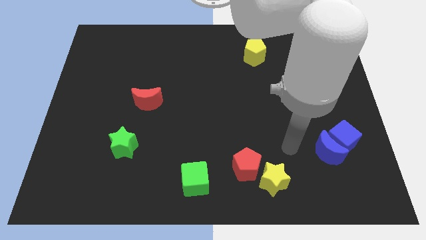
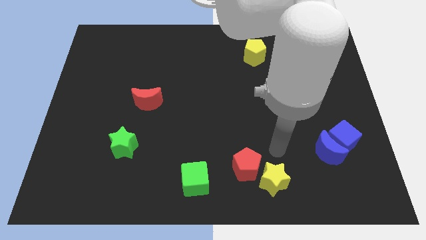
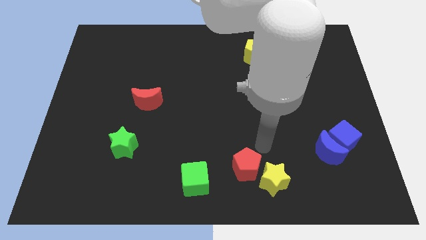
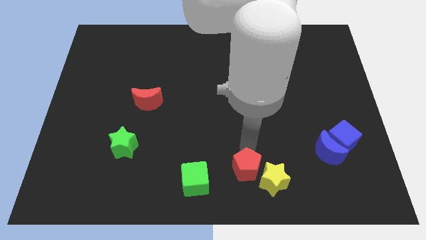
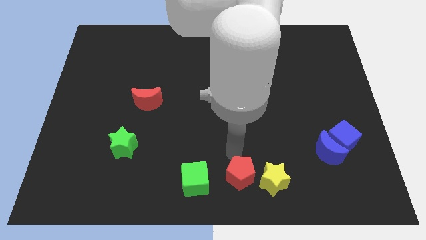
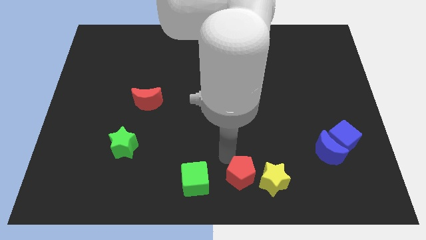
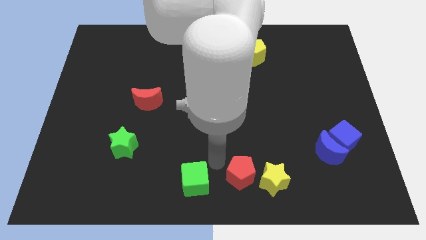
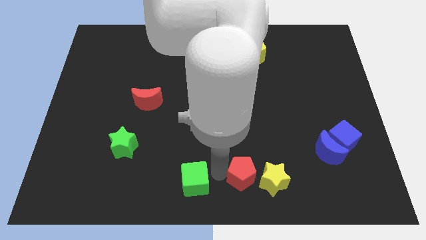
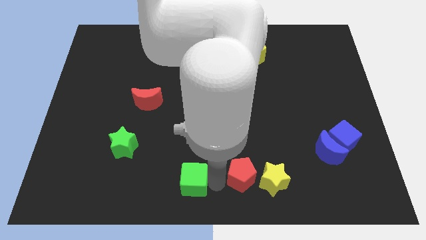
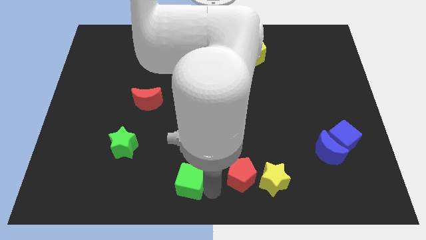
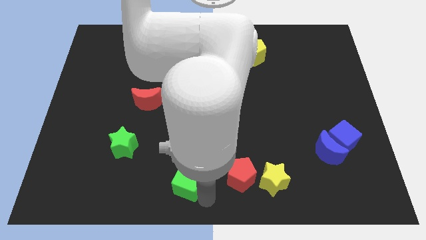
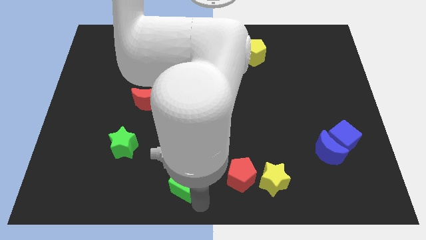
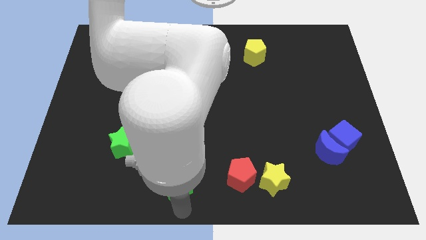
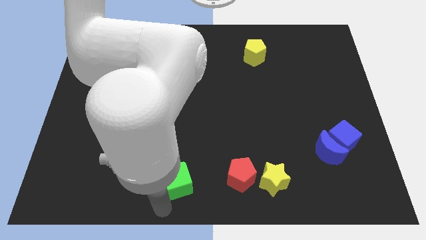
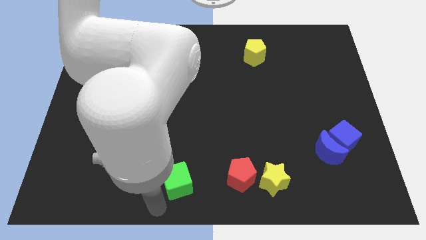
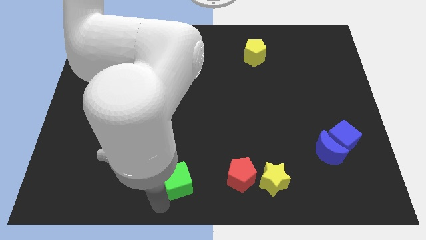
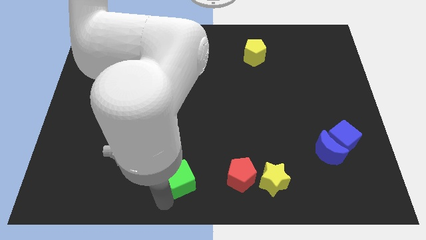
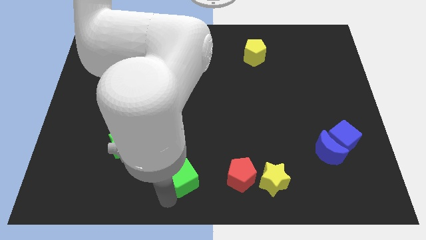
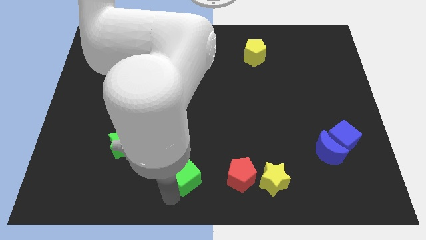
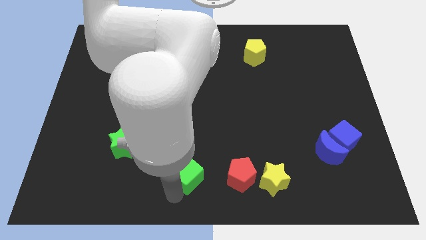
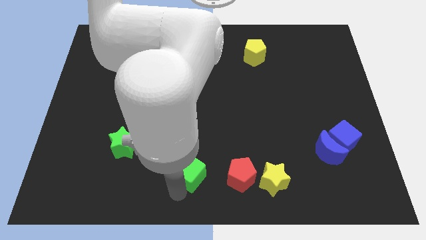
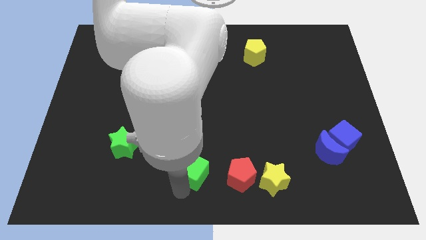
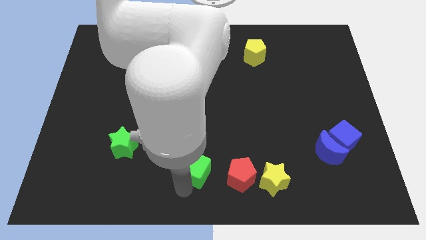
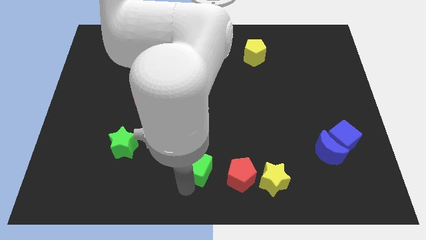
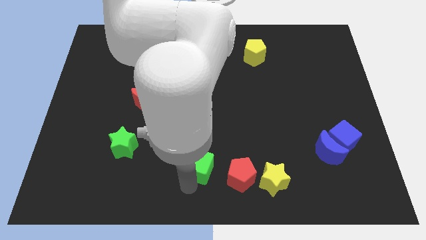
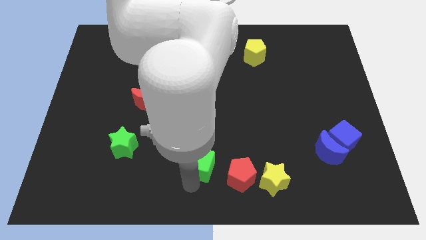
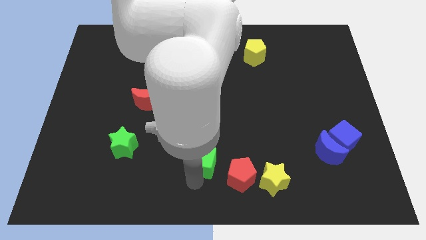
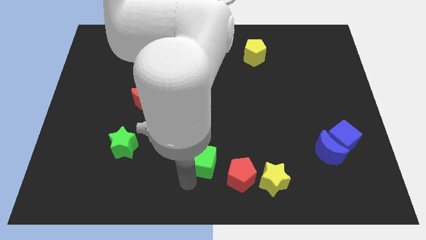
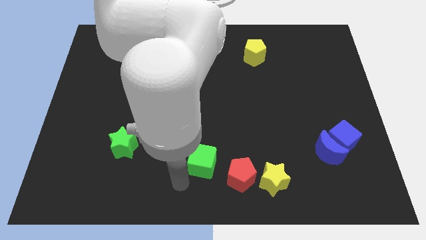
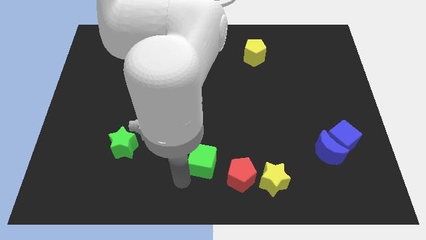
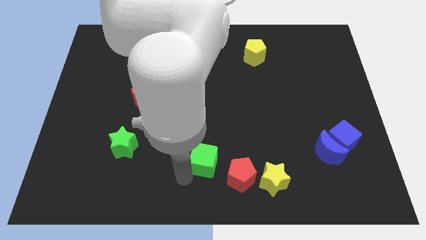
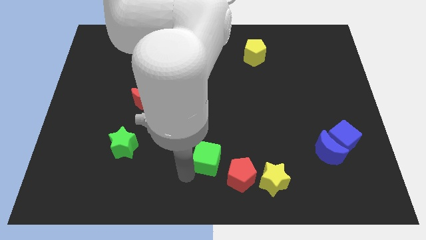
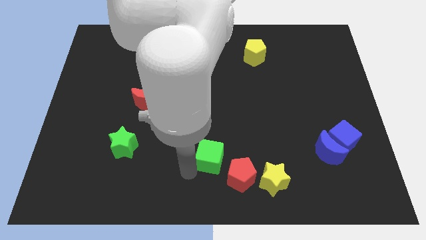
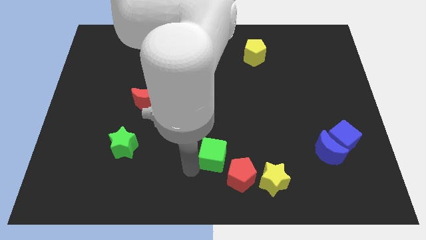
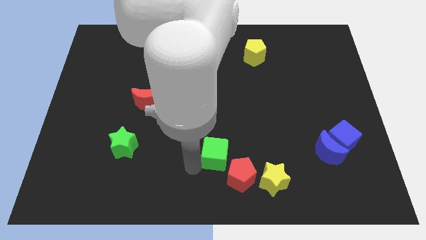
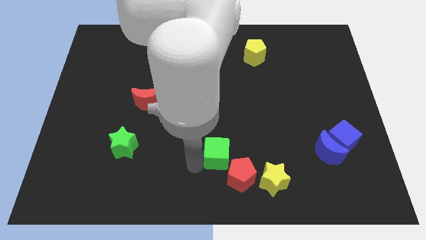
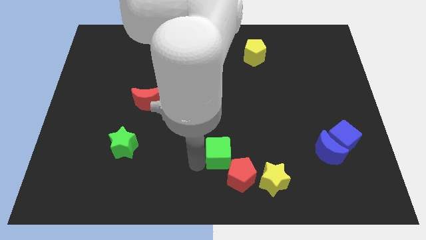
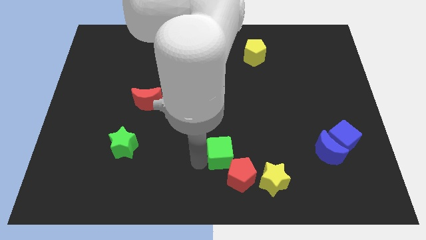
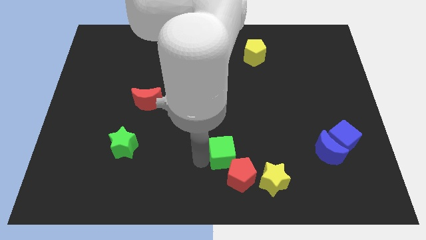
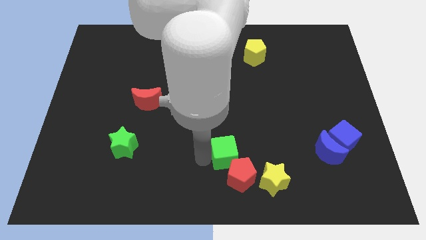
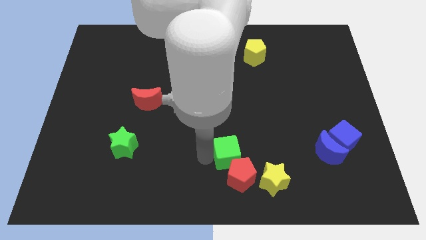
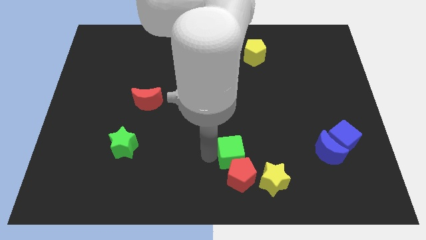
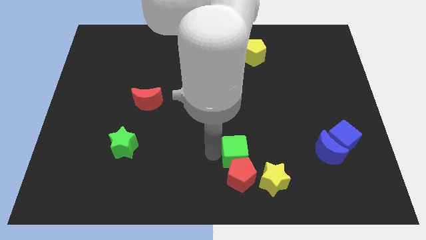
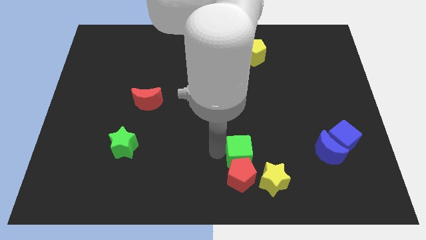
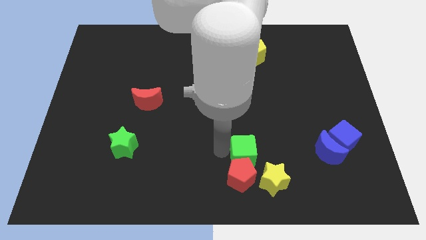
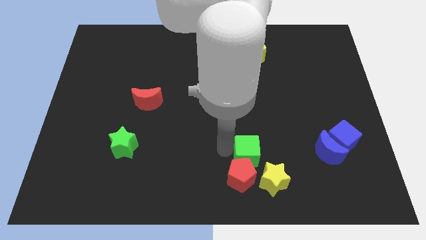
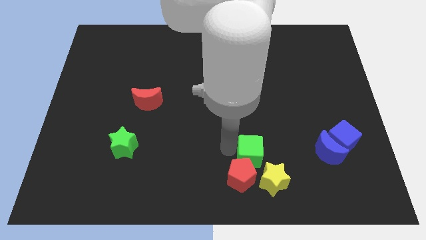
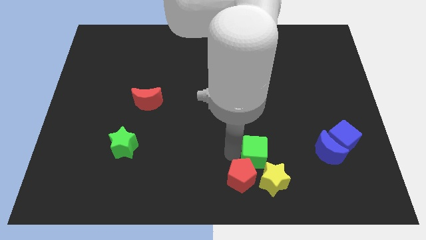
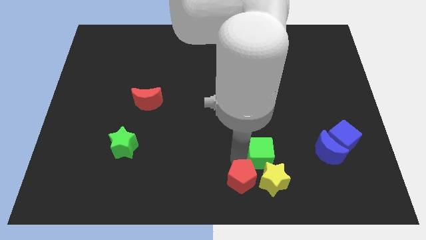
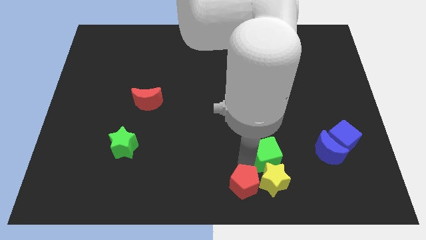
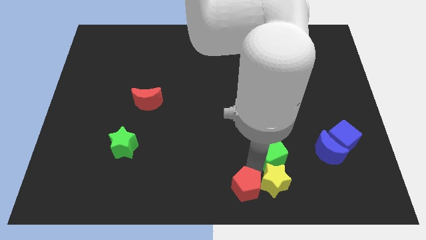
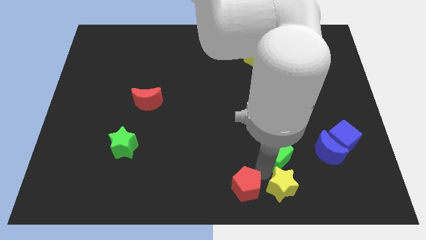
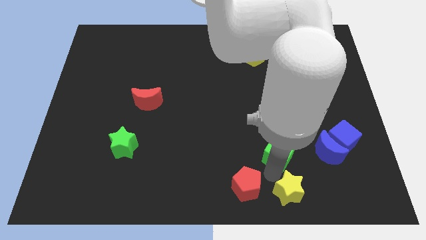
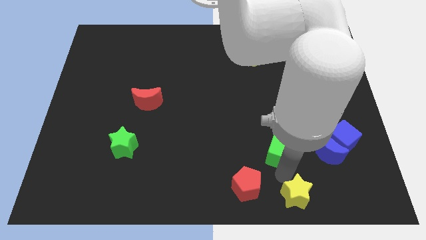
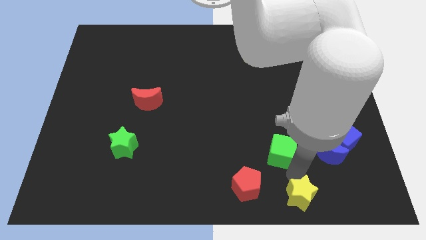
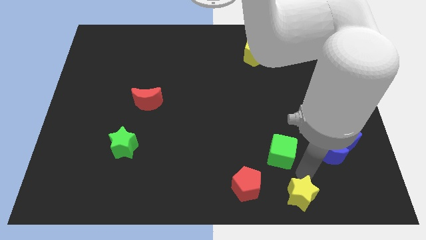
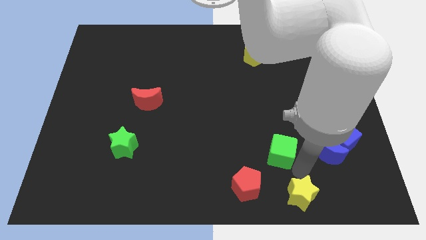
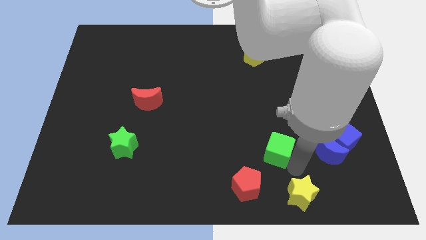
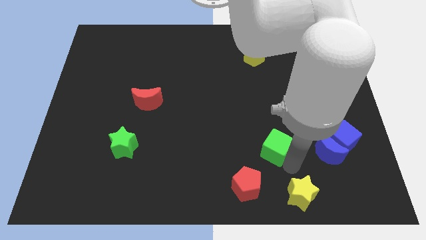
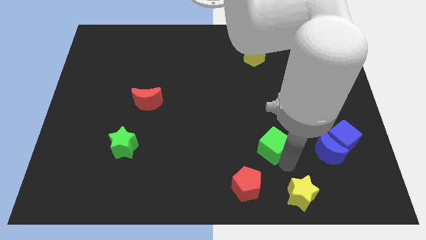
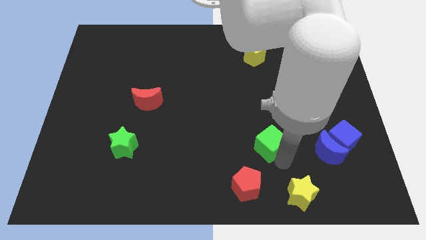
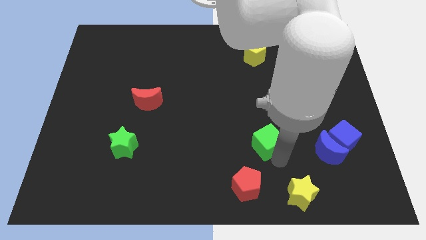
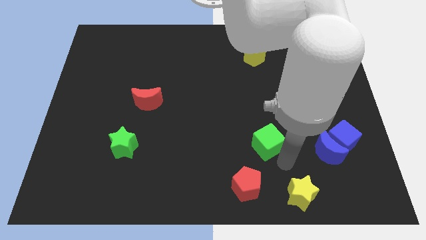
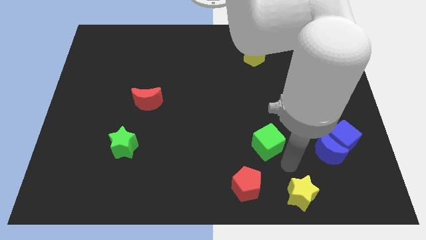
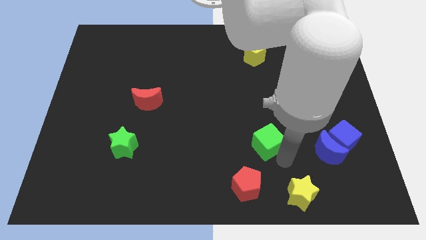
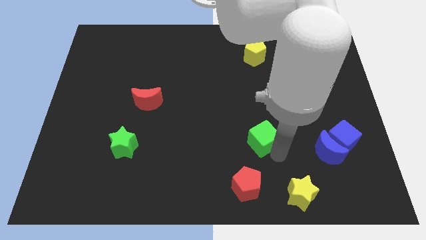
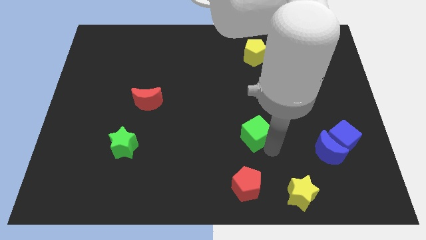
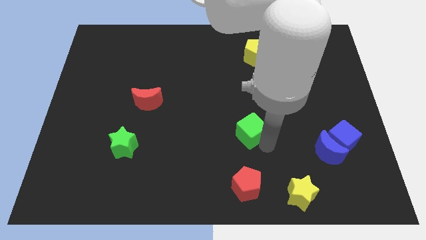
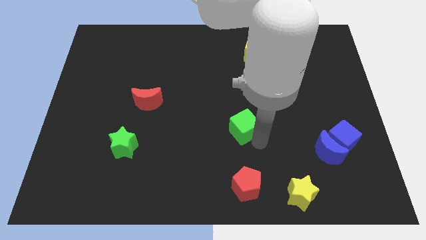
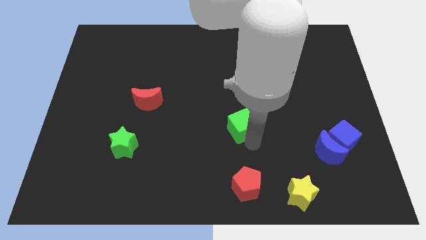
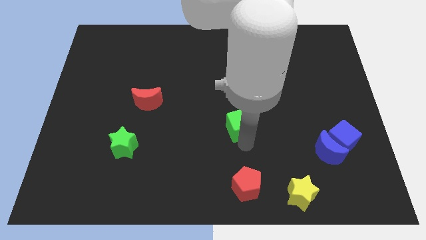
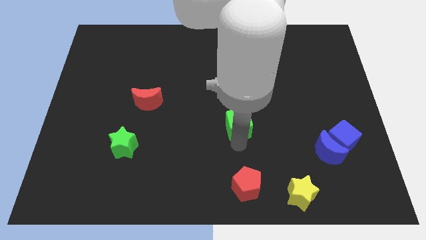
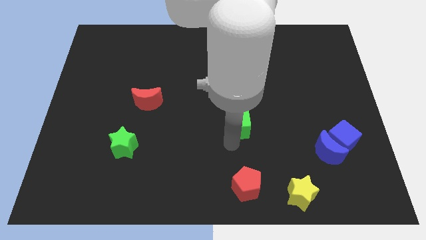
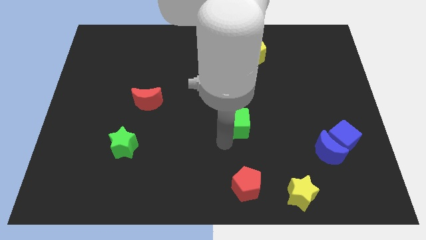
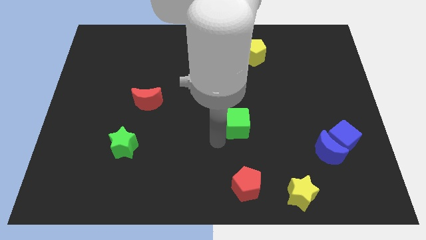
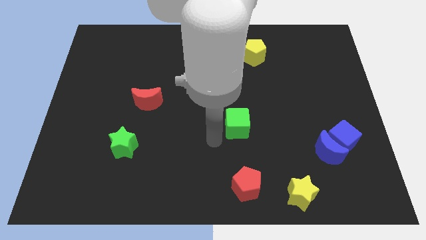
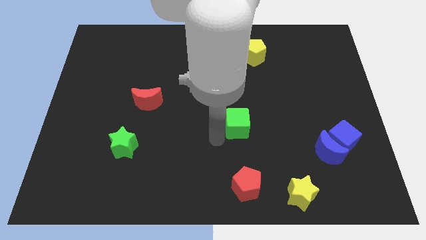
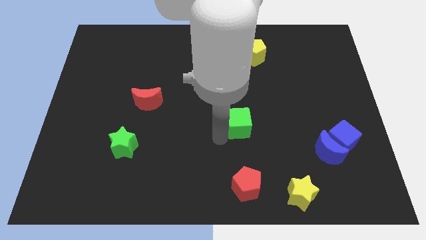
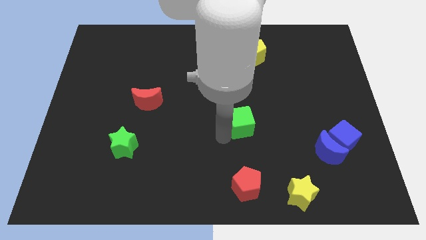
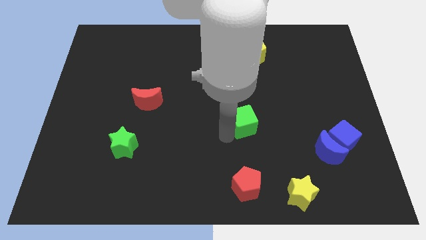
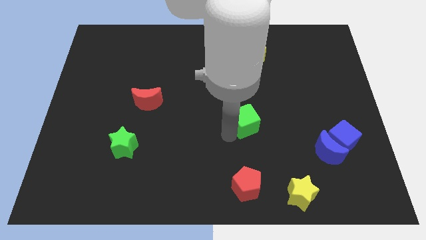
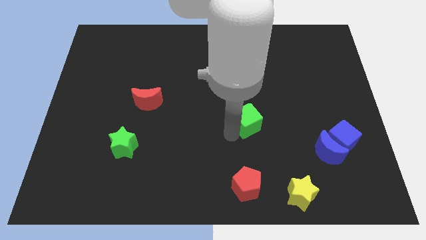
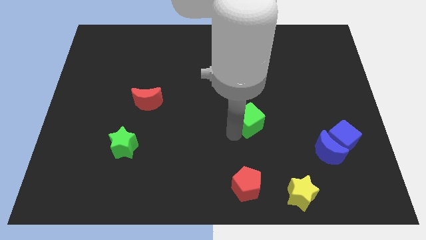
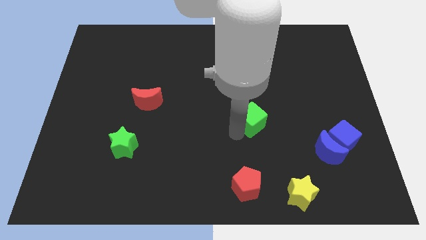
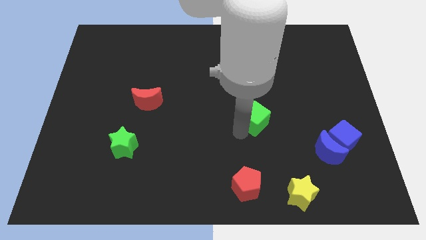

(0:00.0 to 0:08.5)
slide the green cube up and to the right
